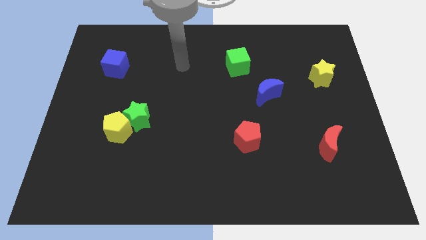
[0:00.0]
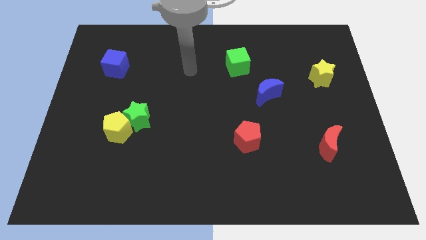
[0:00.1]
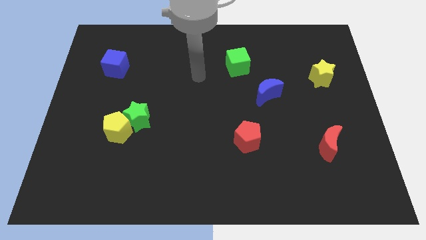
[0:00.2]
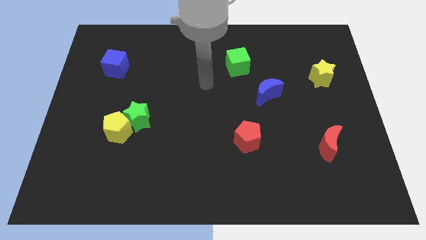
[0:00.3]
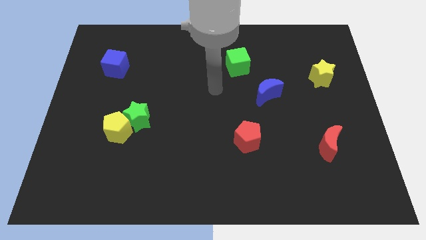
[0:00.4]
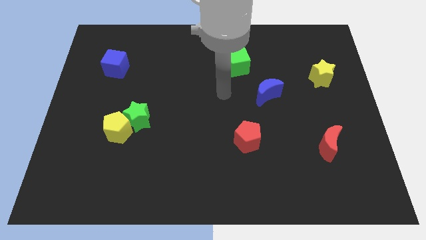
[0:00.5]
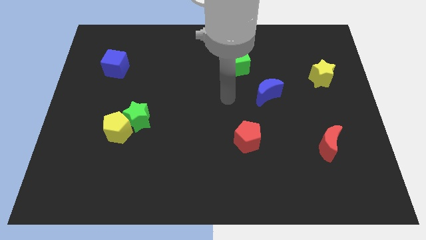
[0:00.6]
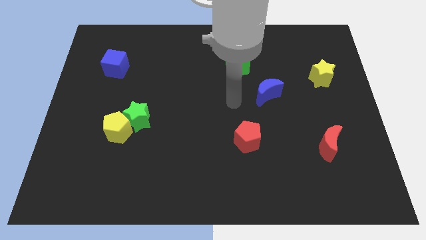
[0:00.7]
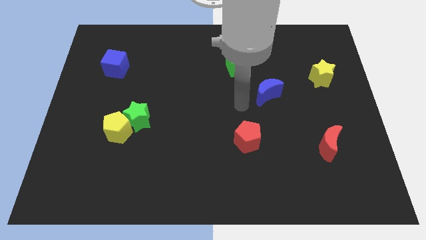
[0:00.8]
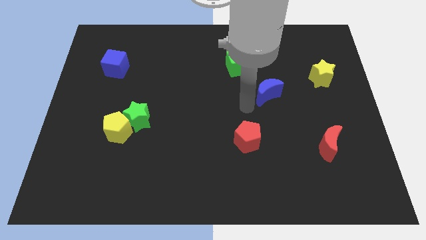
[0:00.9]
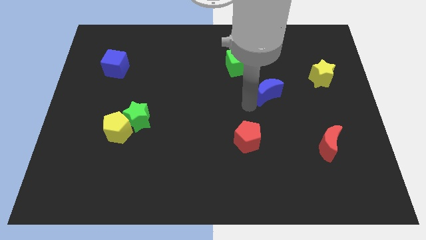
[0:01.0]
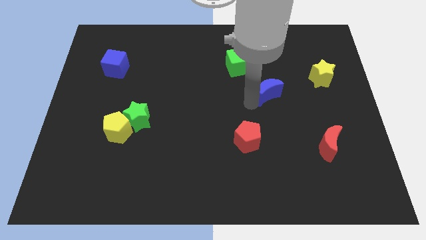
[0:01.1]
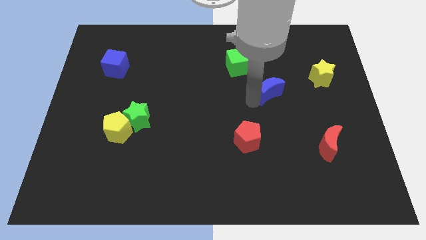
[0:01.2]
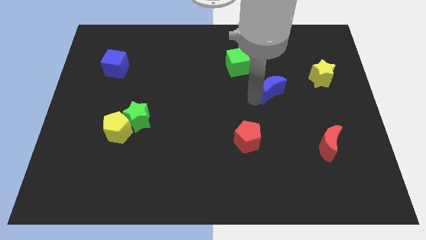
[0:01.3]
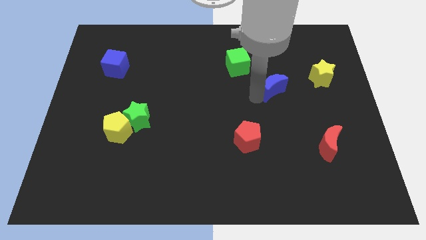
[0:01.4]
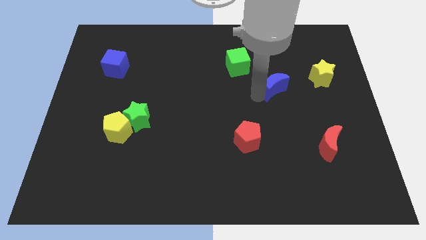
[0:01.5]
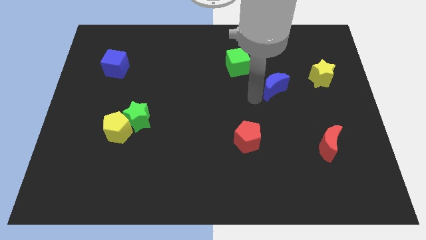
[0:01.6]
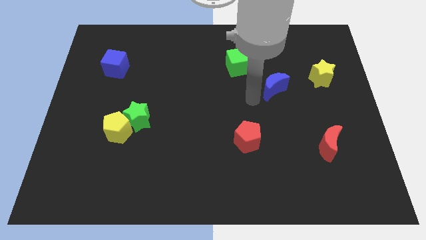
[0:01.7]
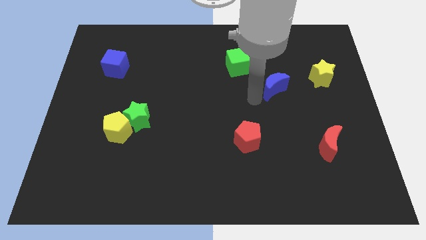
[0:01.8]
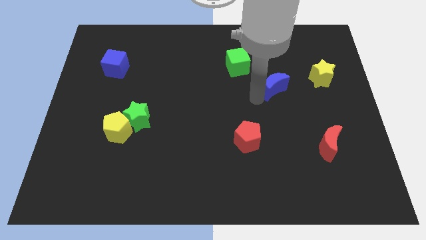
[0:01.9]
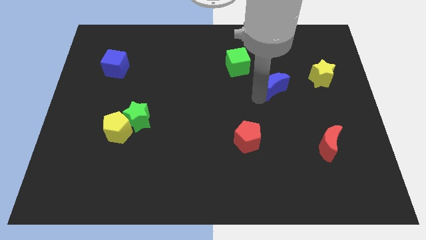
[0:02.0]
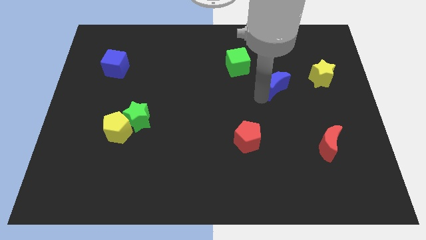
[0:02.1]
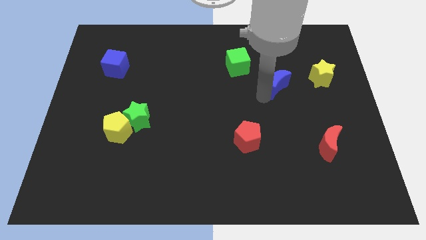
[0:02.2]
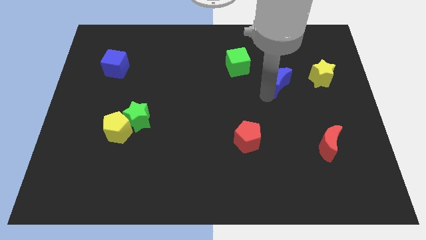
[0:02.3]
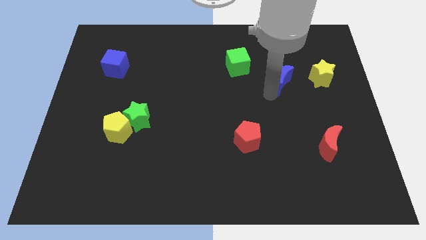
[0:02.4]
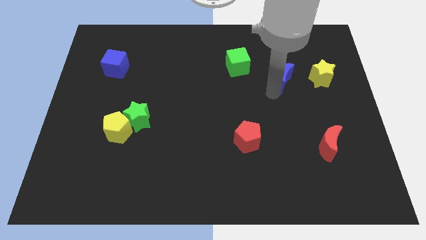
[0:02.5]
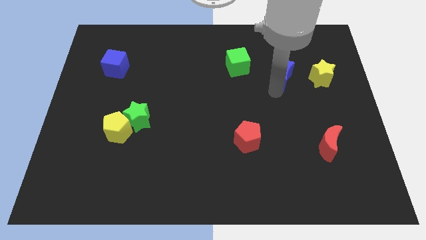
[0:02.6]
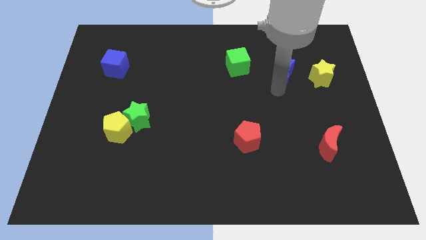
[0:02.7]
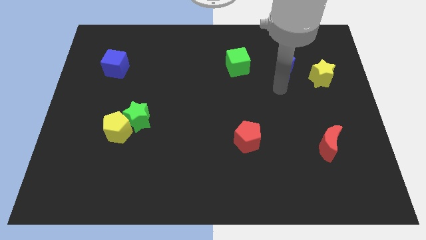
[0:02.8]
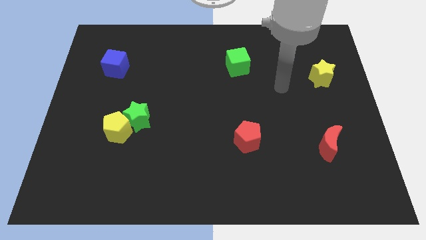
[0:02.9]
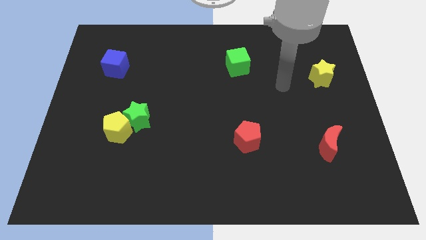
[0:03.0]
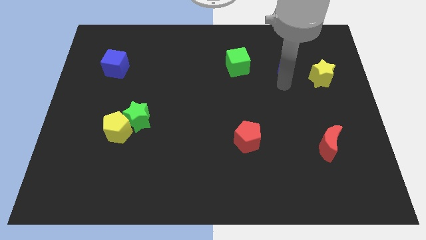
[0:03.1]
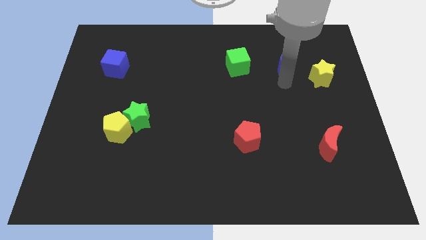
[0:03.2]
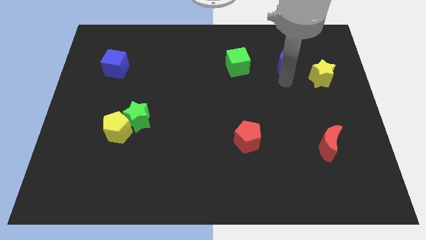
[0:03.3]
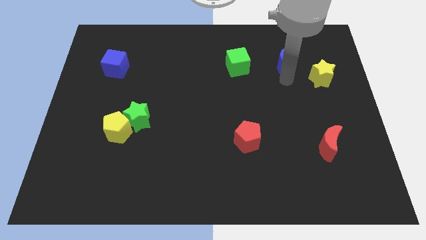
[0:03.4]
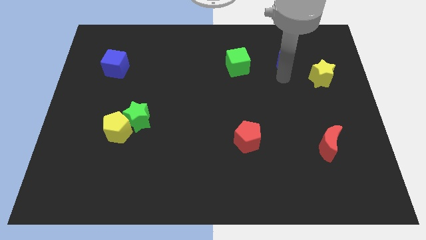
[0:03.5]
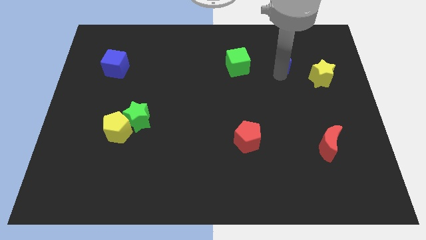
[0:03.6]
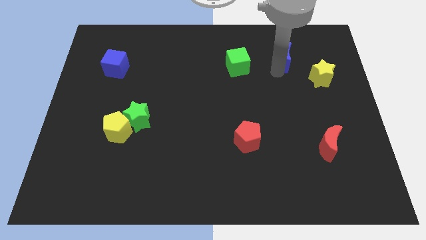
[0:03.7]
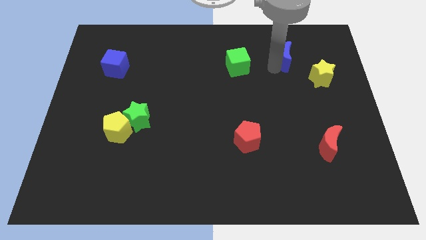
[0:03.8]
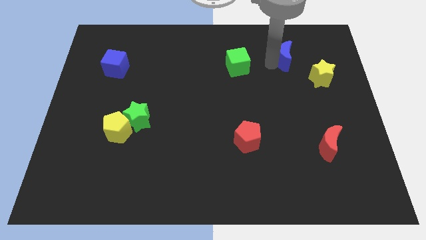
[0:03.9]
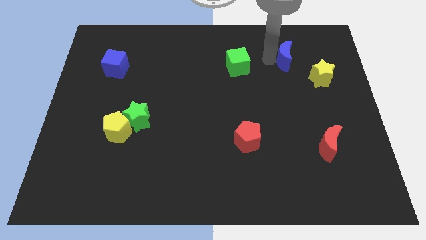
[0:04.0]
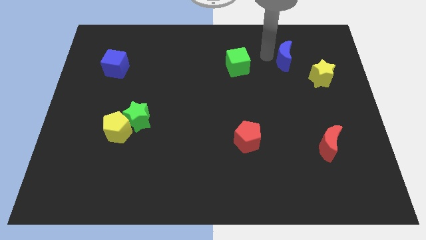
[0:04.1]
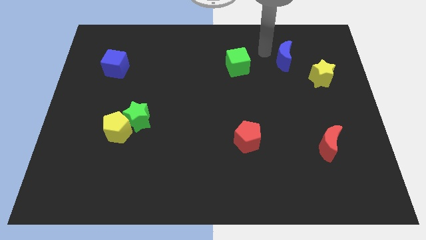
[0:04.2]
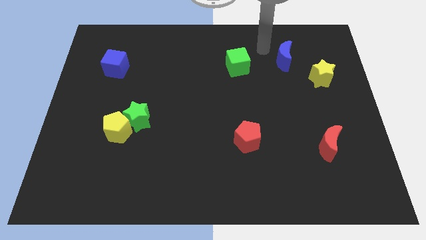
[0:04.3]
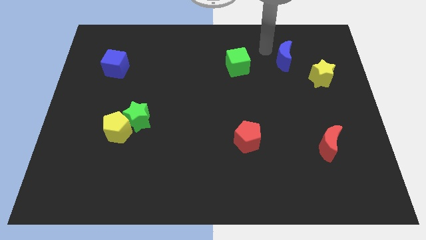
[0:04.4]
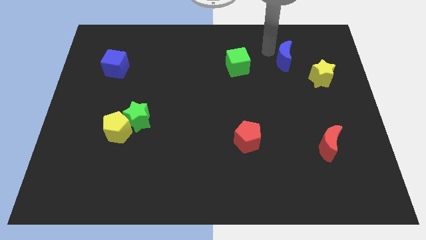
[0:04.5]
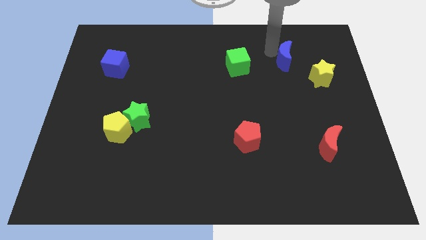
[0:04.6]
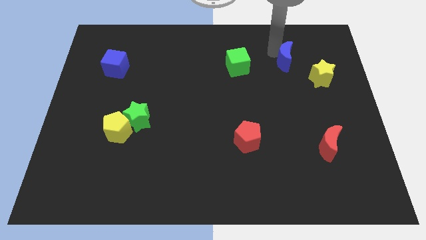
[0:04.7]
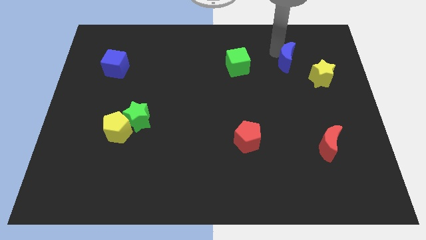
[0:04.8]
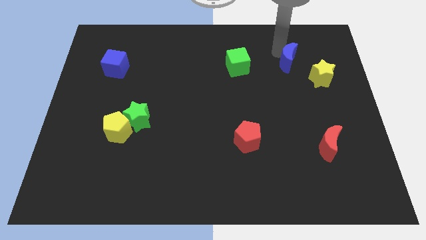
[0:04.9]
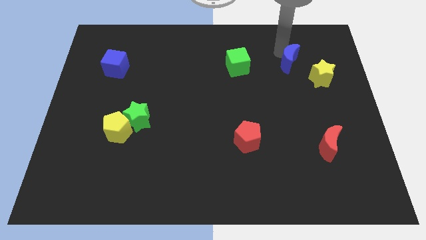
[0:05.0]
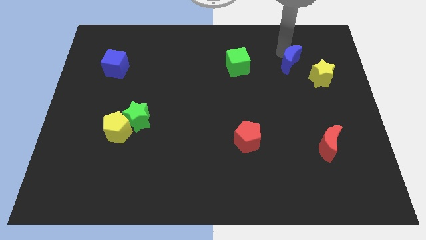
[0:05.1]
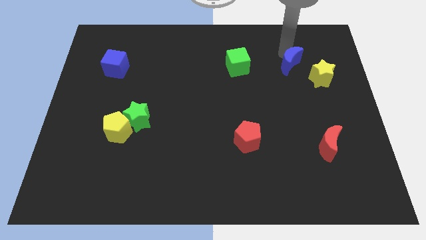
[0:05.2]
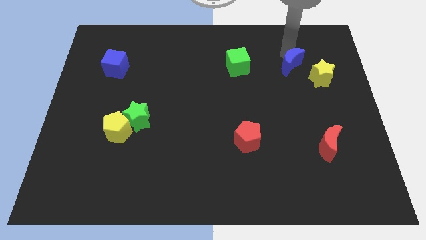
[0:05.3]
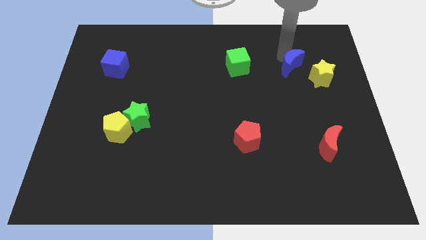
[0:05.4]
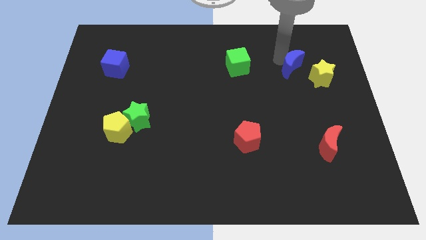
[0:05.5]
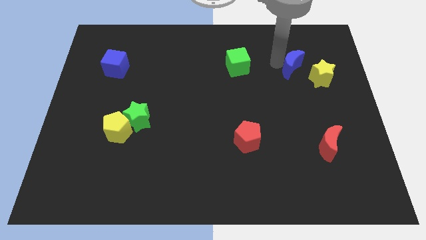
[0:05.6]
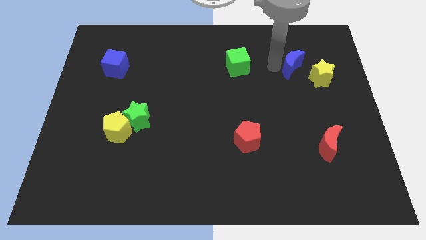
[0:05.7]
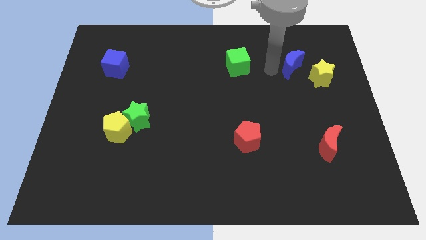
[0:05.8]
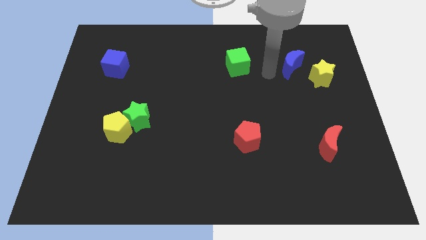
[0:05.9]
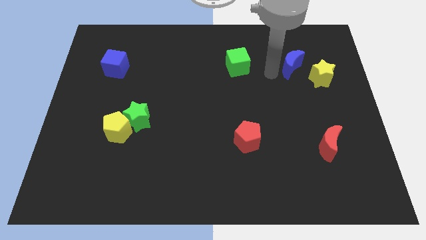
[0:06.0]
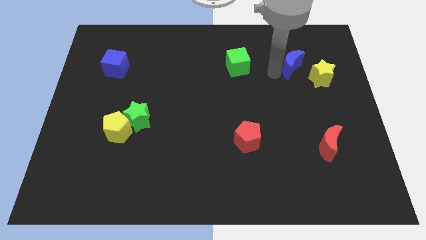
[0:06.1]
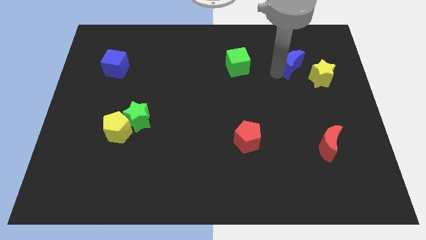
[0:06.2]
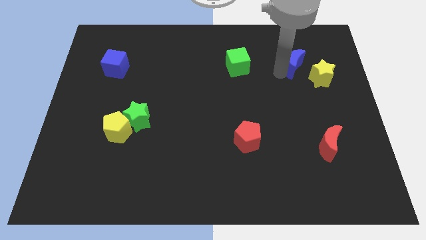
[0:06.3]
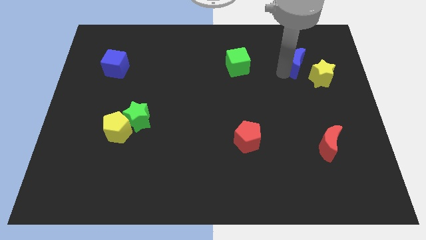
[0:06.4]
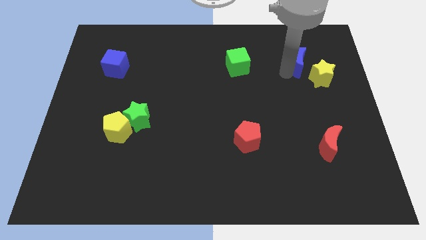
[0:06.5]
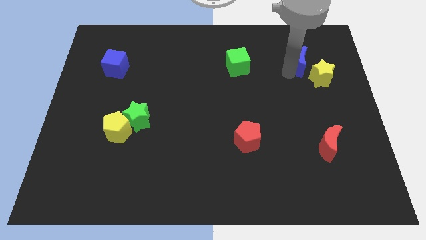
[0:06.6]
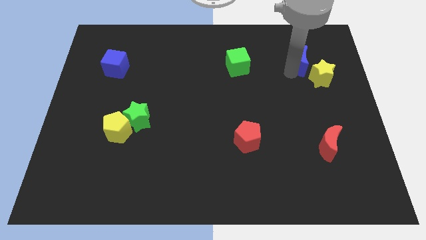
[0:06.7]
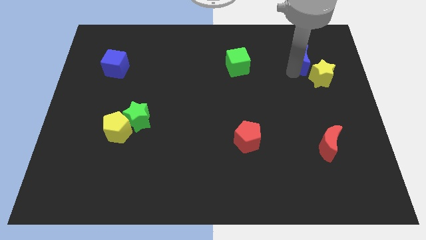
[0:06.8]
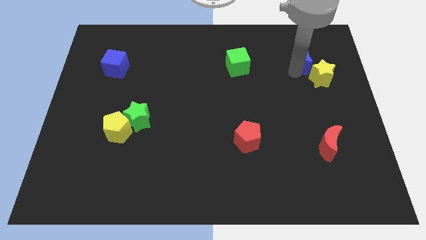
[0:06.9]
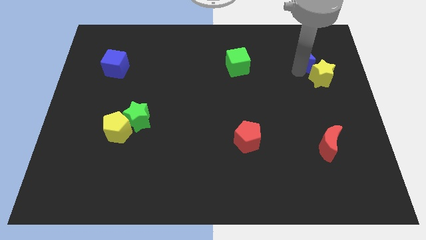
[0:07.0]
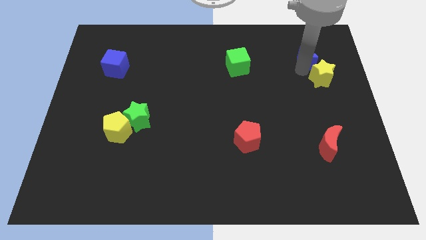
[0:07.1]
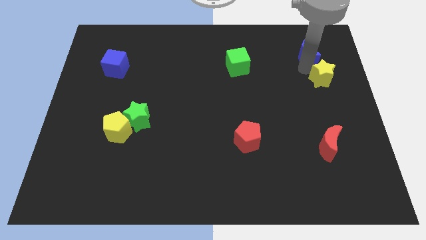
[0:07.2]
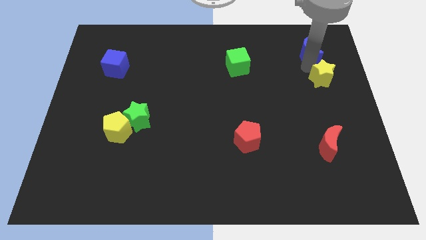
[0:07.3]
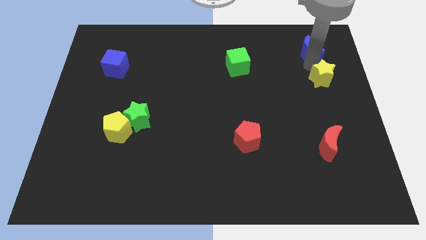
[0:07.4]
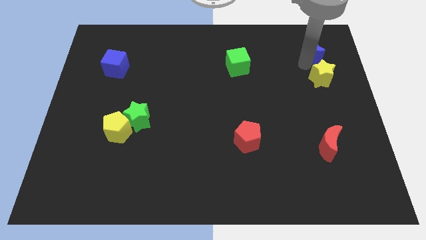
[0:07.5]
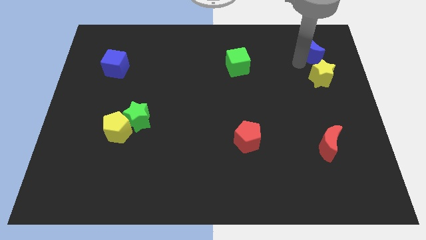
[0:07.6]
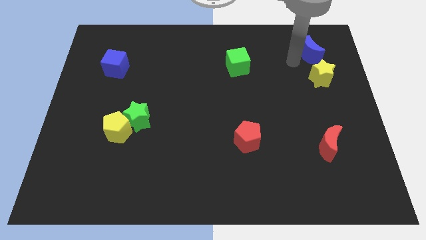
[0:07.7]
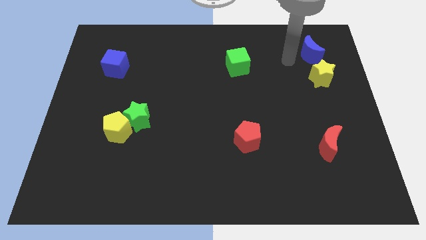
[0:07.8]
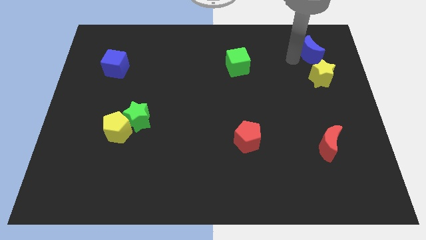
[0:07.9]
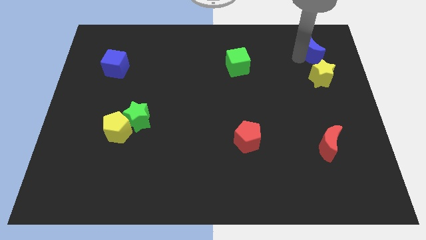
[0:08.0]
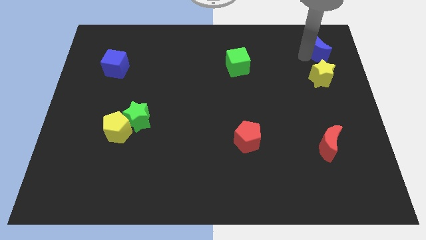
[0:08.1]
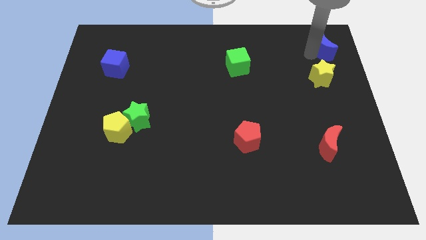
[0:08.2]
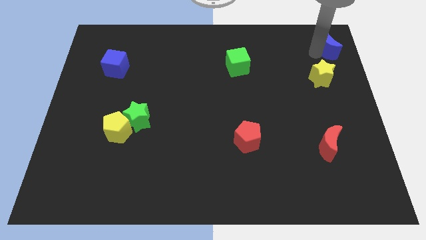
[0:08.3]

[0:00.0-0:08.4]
move the blue moon to the top right
